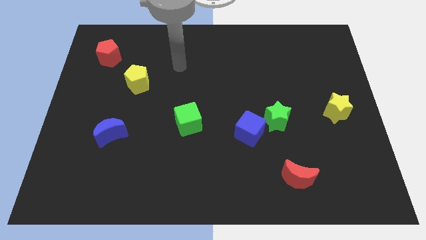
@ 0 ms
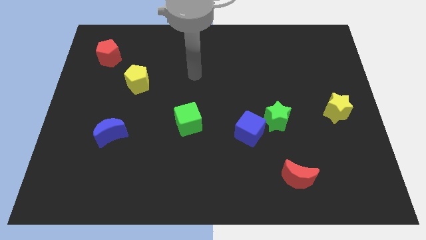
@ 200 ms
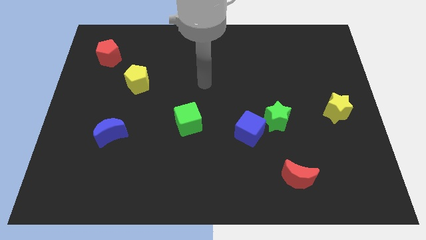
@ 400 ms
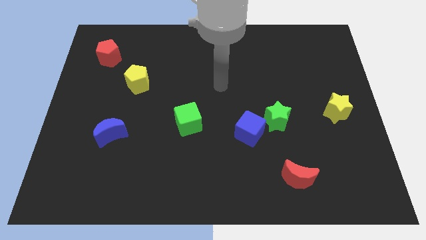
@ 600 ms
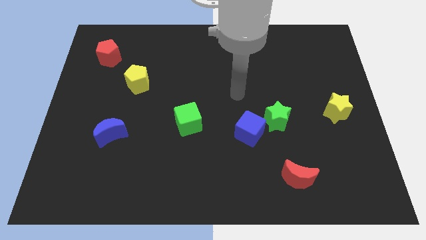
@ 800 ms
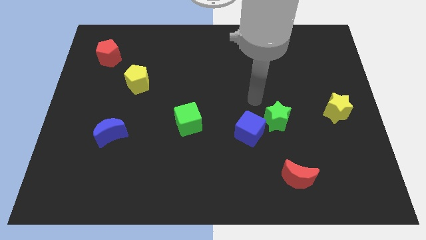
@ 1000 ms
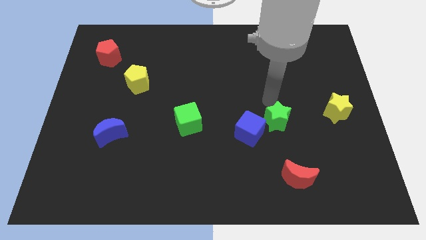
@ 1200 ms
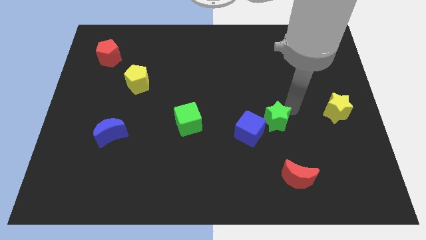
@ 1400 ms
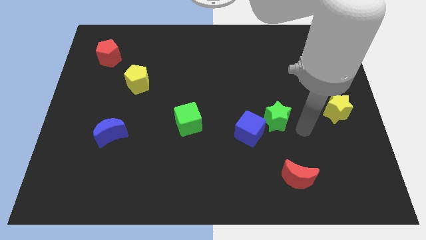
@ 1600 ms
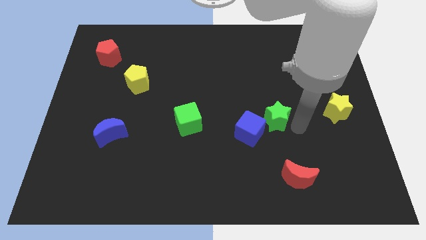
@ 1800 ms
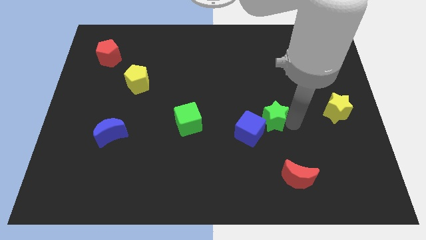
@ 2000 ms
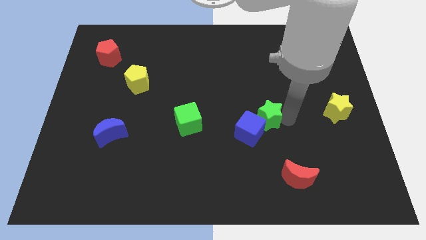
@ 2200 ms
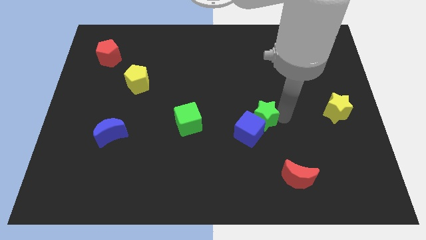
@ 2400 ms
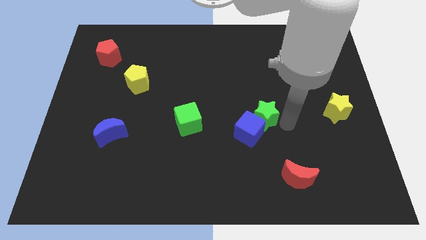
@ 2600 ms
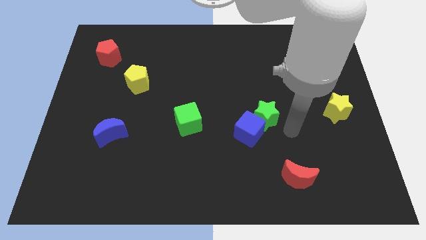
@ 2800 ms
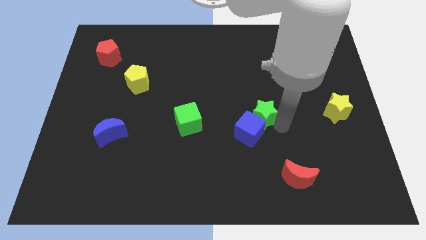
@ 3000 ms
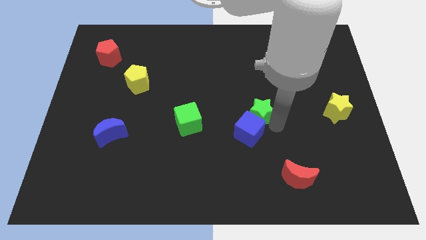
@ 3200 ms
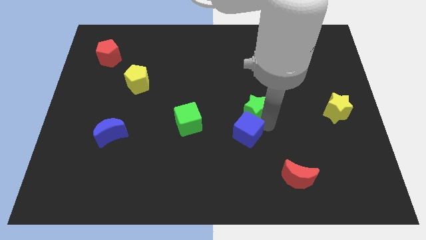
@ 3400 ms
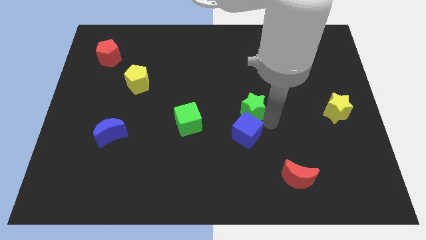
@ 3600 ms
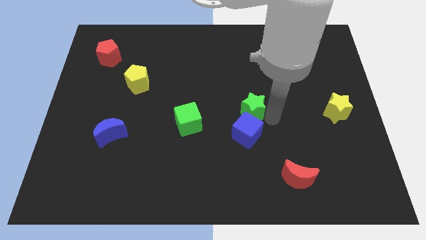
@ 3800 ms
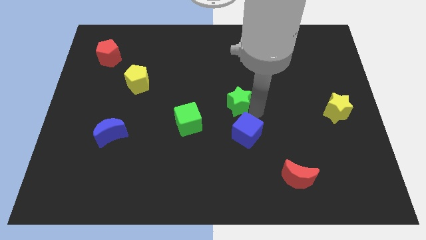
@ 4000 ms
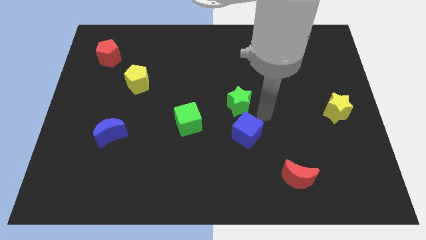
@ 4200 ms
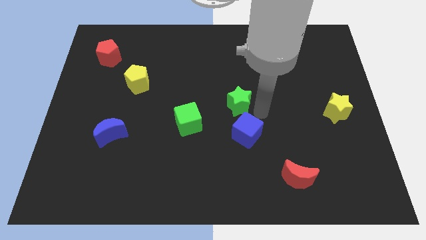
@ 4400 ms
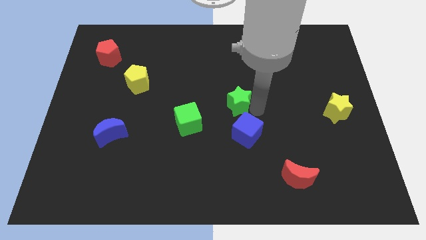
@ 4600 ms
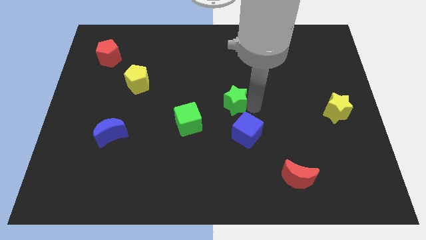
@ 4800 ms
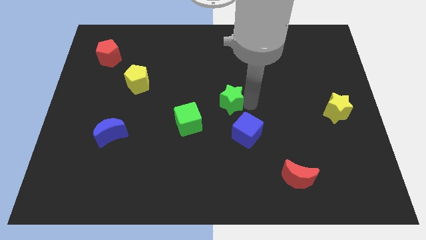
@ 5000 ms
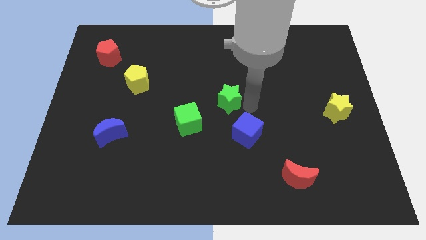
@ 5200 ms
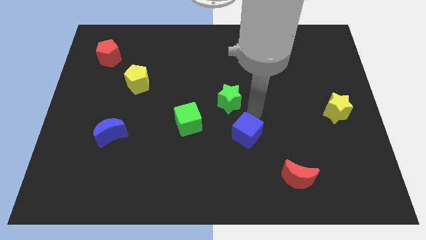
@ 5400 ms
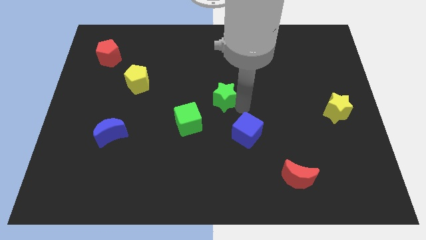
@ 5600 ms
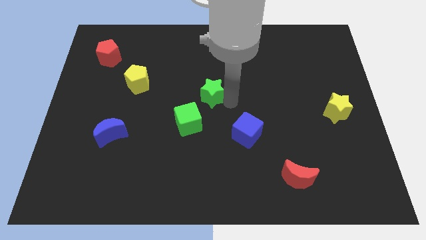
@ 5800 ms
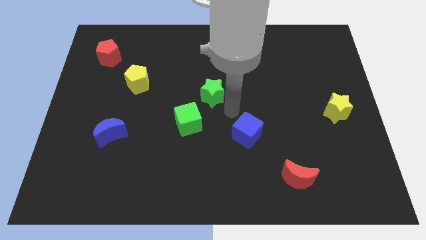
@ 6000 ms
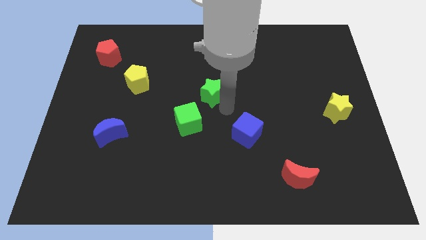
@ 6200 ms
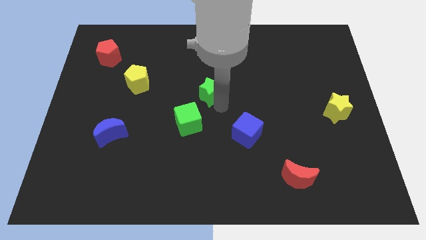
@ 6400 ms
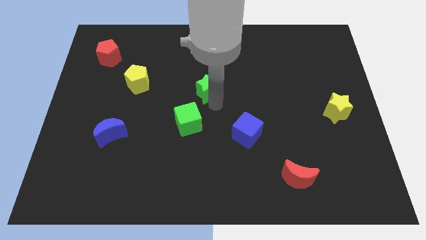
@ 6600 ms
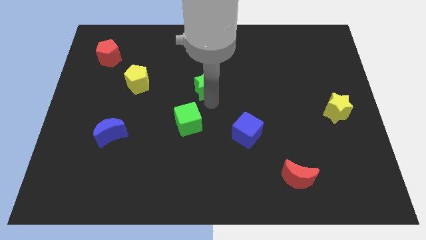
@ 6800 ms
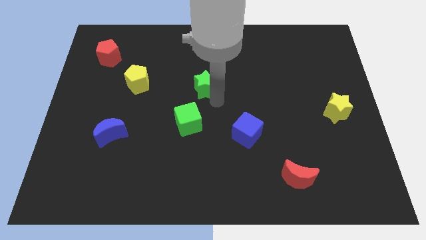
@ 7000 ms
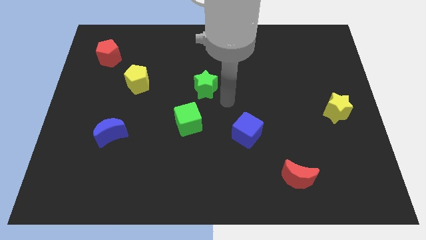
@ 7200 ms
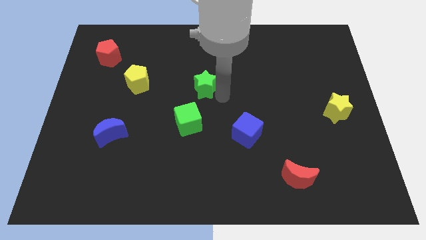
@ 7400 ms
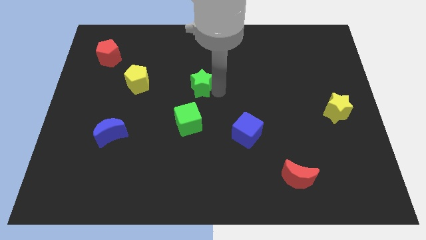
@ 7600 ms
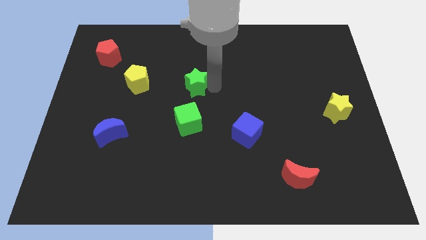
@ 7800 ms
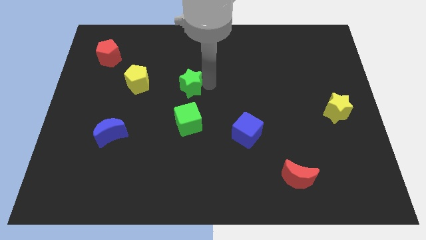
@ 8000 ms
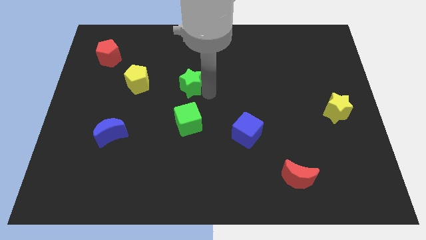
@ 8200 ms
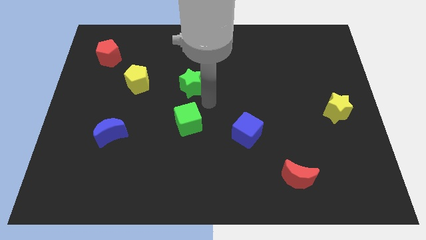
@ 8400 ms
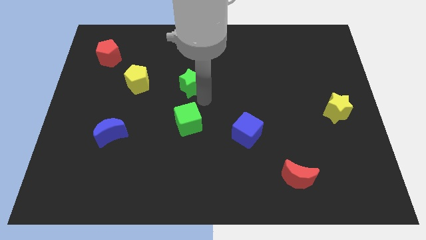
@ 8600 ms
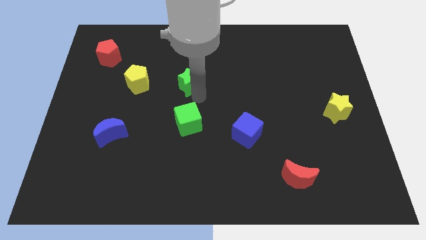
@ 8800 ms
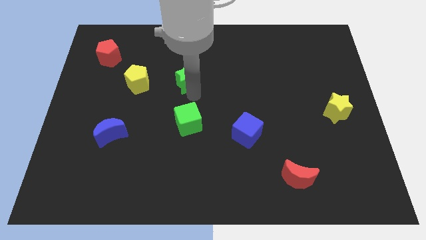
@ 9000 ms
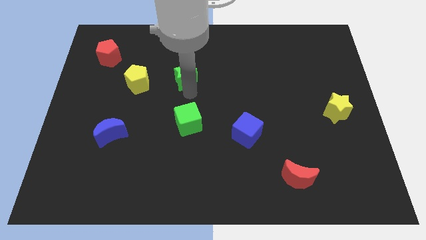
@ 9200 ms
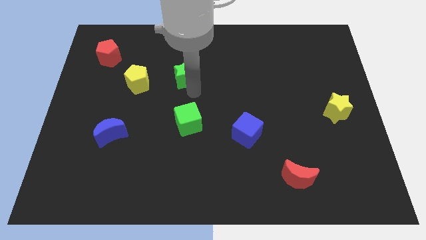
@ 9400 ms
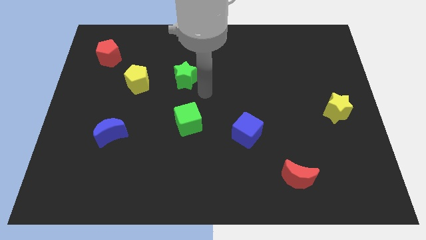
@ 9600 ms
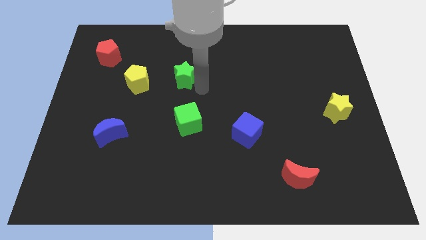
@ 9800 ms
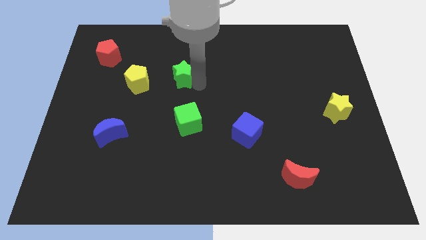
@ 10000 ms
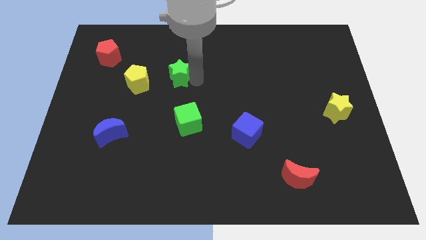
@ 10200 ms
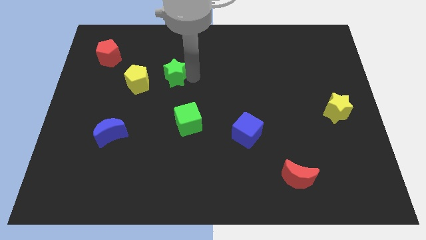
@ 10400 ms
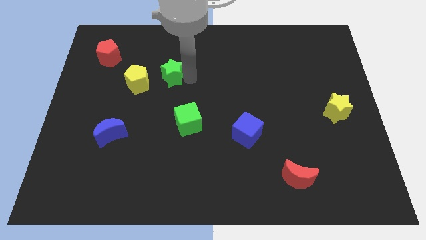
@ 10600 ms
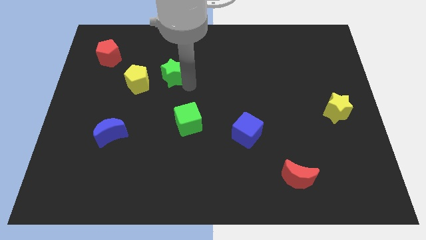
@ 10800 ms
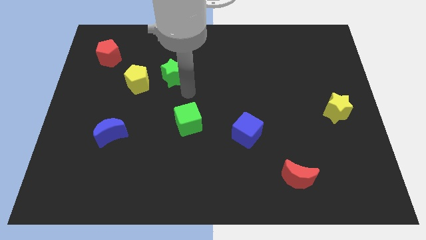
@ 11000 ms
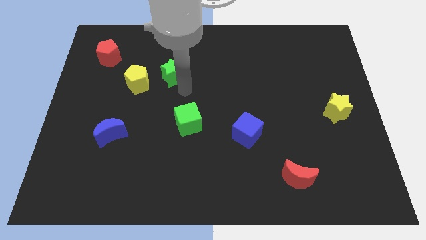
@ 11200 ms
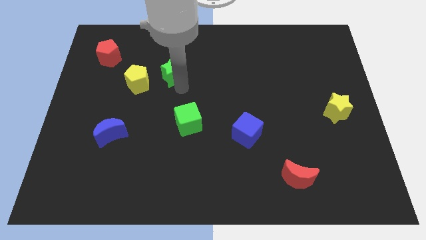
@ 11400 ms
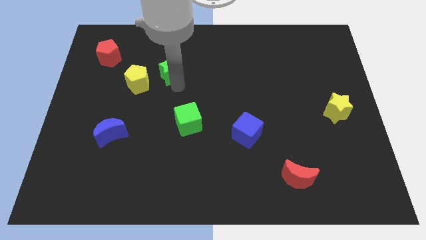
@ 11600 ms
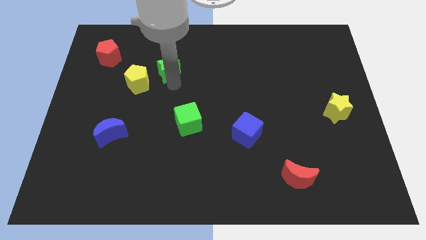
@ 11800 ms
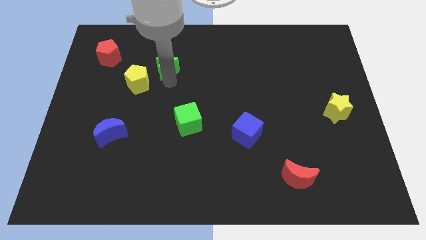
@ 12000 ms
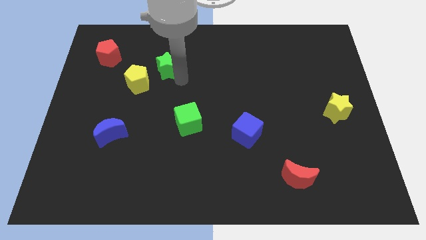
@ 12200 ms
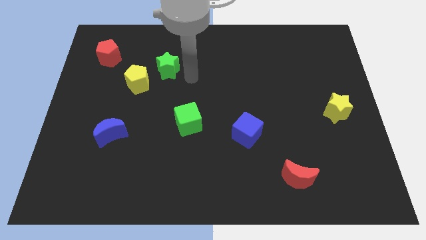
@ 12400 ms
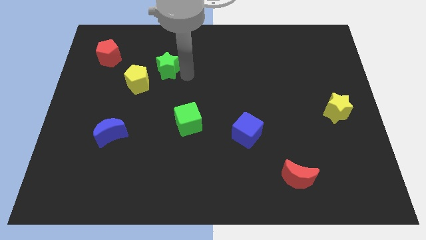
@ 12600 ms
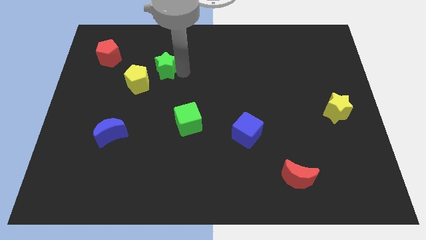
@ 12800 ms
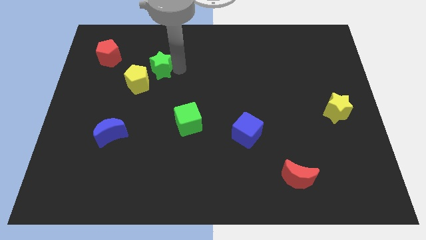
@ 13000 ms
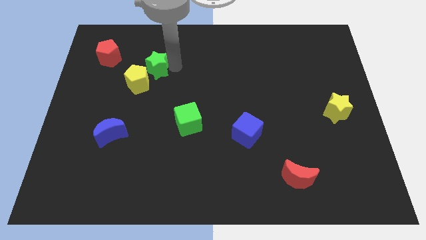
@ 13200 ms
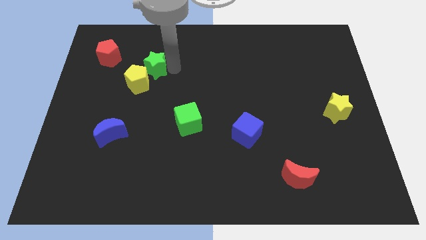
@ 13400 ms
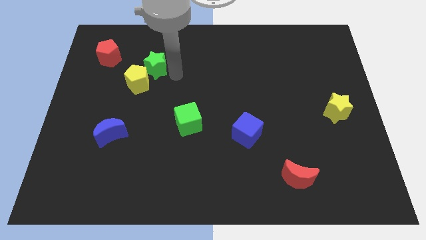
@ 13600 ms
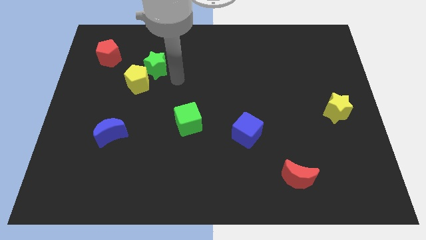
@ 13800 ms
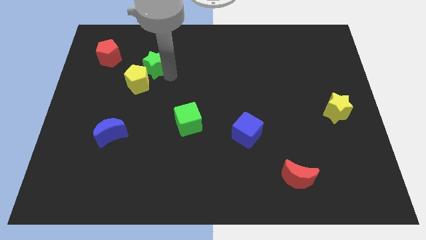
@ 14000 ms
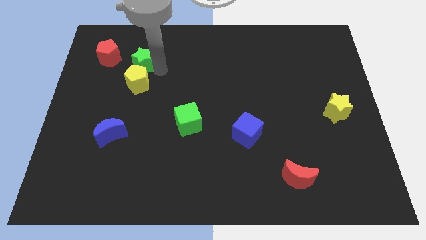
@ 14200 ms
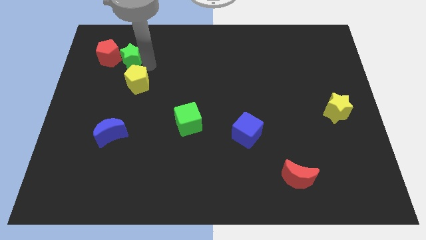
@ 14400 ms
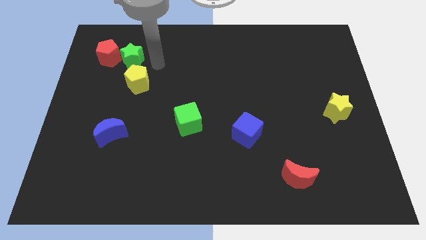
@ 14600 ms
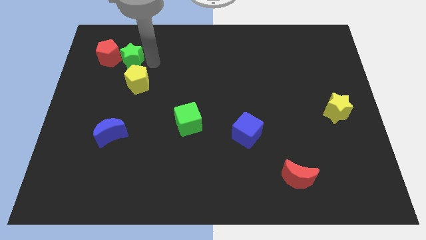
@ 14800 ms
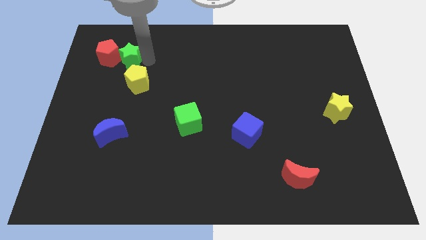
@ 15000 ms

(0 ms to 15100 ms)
move the green star close to the red pentagon
